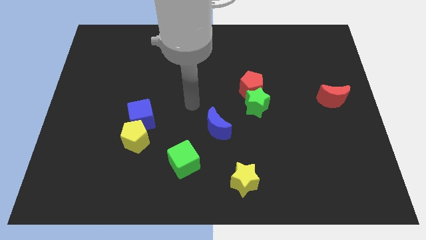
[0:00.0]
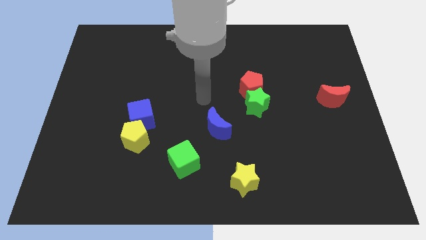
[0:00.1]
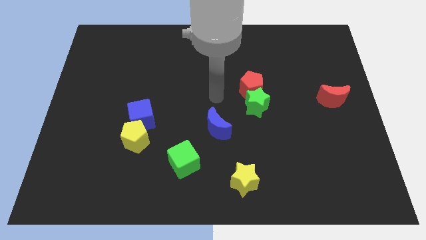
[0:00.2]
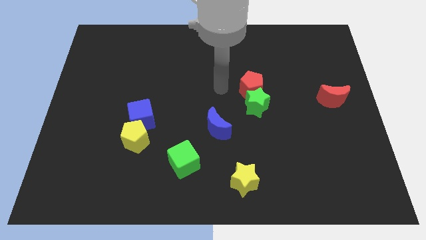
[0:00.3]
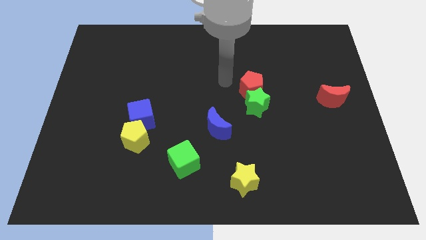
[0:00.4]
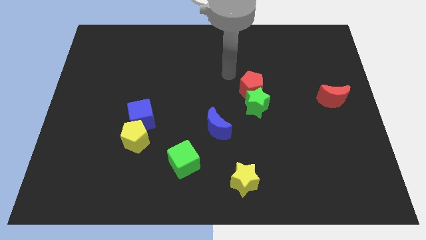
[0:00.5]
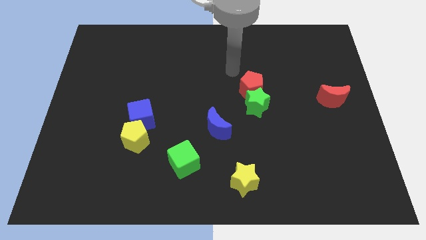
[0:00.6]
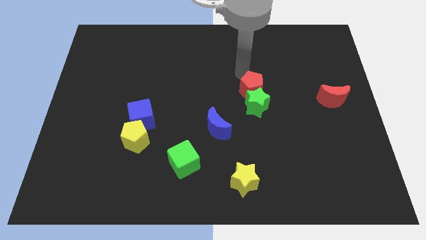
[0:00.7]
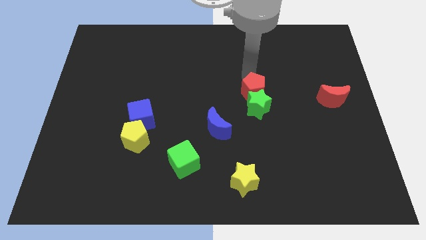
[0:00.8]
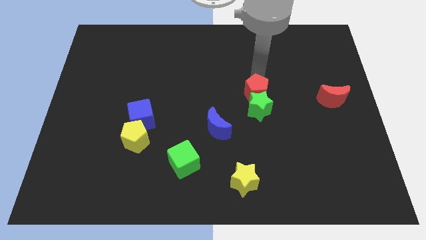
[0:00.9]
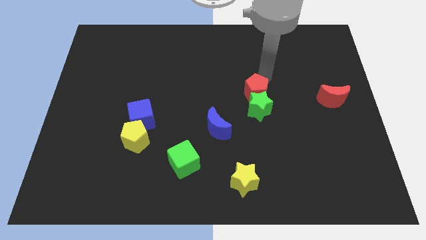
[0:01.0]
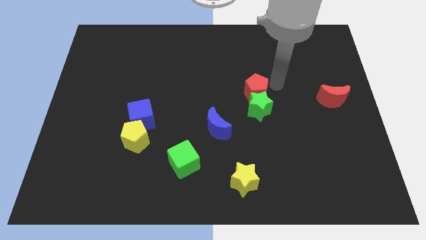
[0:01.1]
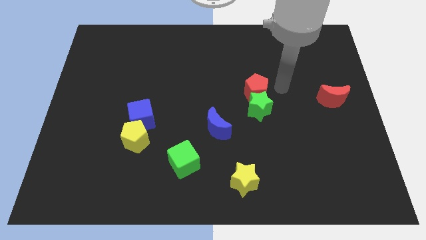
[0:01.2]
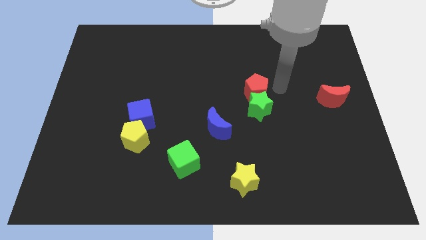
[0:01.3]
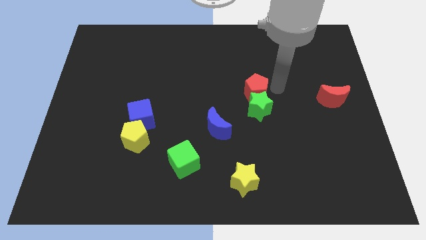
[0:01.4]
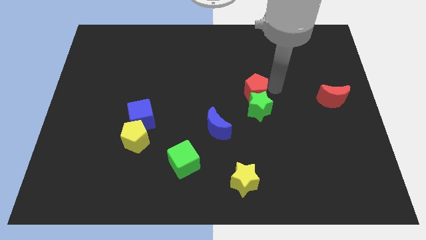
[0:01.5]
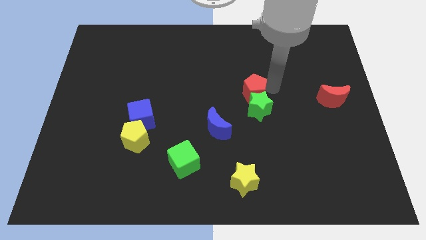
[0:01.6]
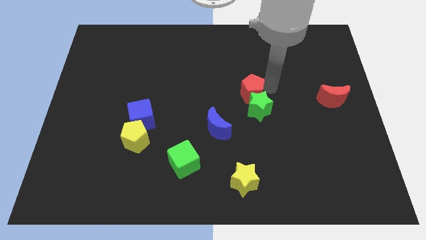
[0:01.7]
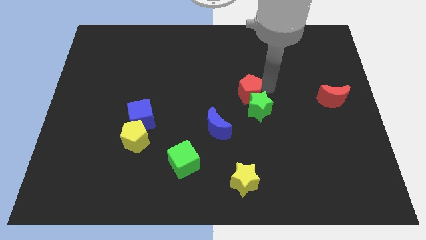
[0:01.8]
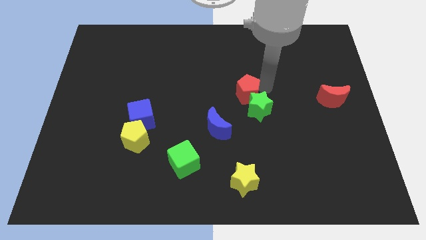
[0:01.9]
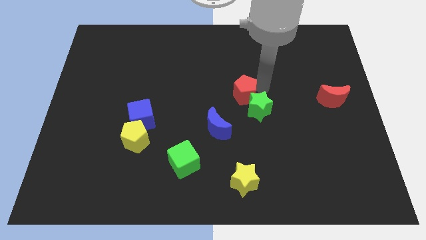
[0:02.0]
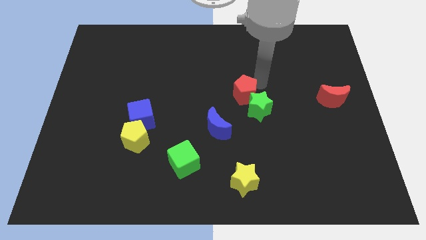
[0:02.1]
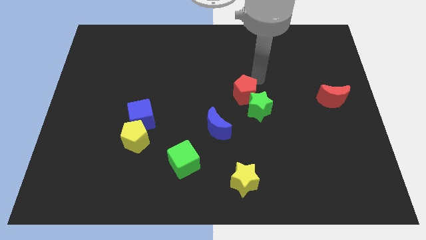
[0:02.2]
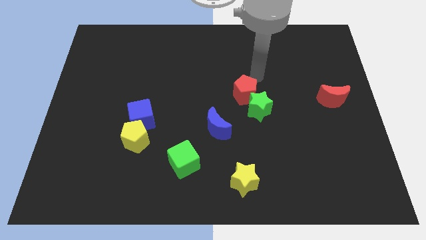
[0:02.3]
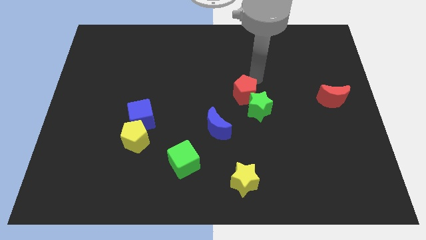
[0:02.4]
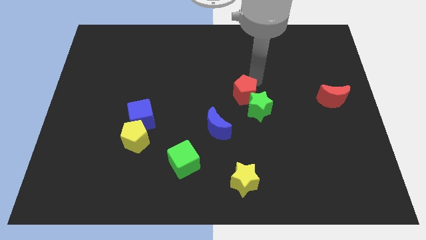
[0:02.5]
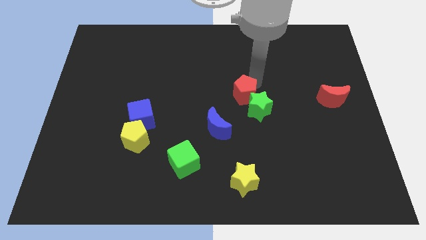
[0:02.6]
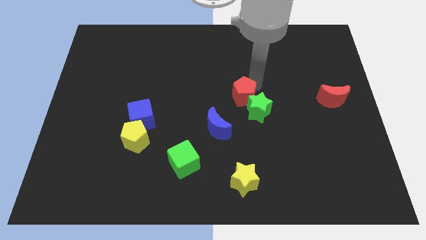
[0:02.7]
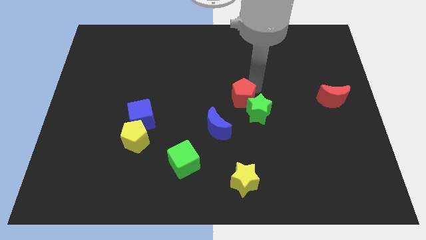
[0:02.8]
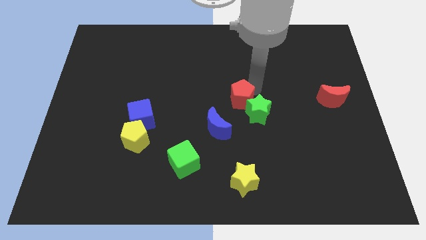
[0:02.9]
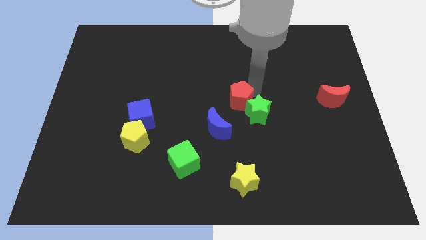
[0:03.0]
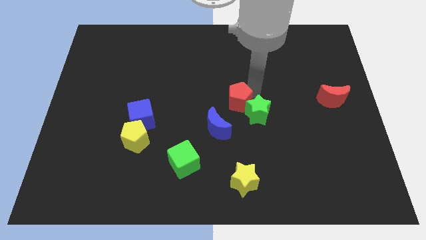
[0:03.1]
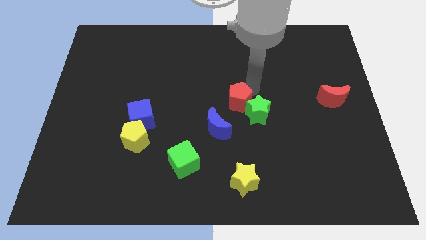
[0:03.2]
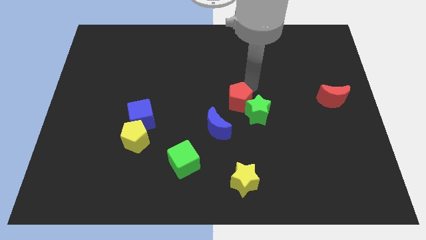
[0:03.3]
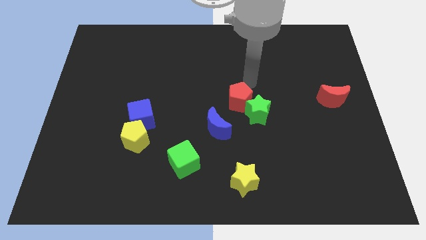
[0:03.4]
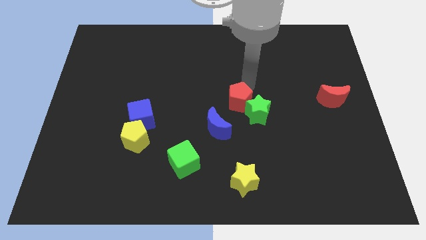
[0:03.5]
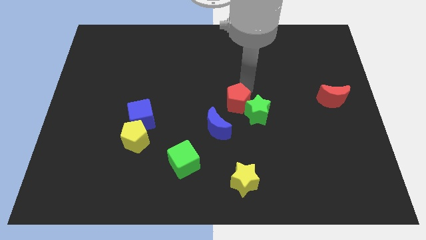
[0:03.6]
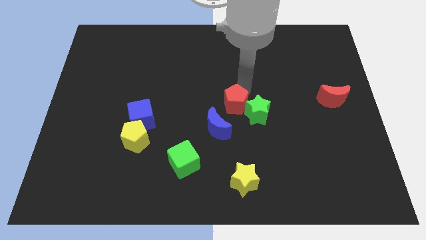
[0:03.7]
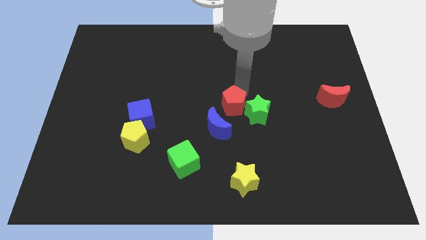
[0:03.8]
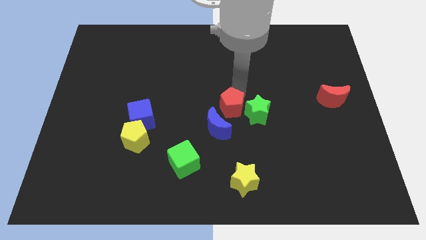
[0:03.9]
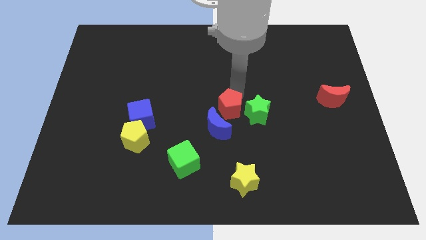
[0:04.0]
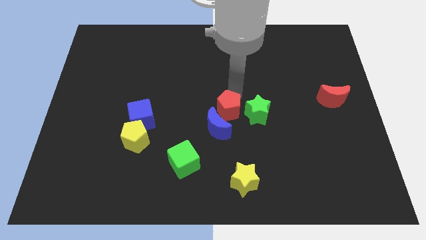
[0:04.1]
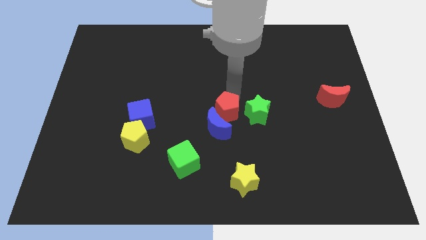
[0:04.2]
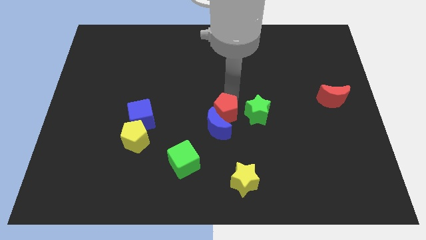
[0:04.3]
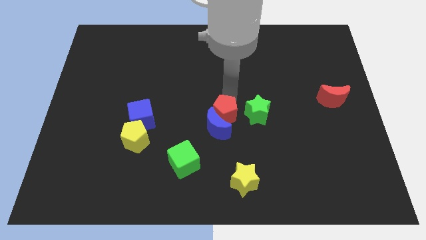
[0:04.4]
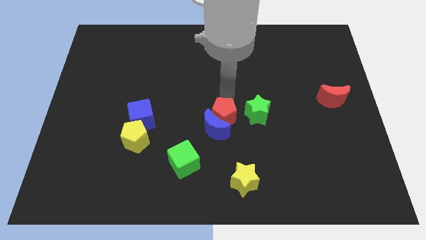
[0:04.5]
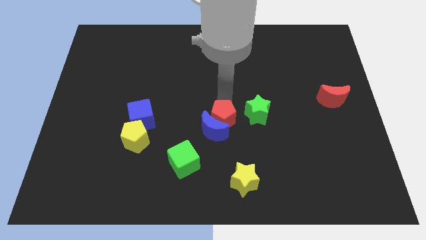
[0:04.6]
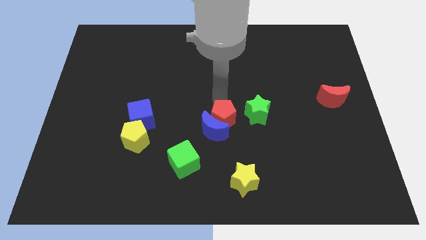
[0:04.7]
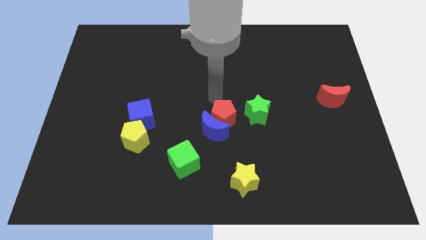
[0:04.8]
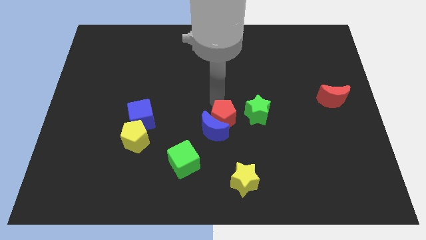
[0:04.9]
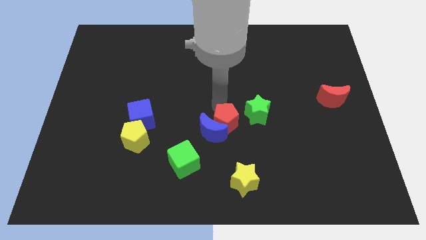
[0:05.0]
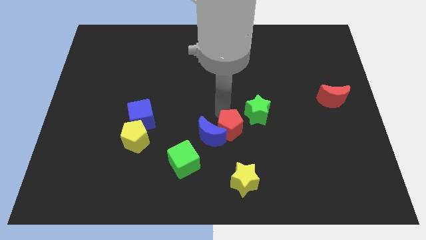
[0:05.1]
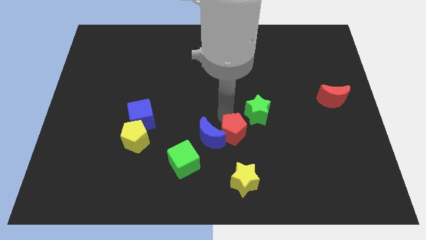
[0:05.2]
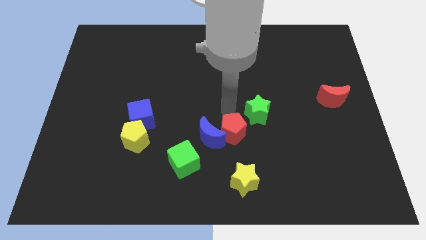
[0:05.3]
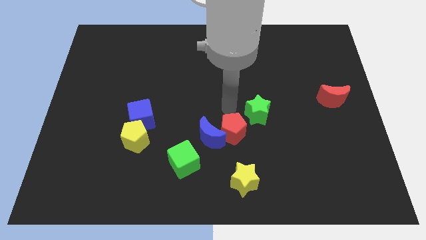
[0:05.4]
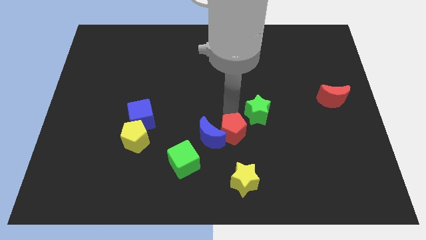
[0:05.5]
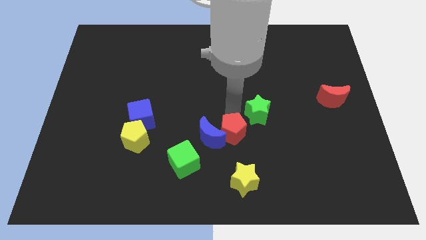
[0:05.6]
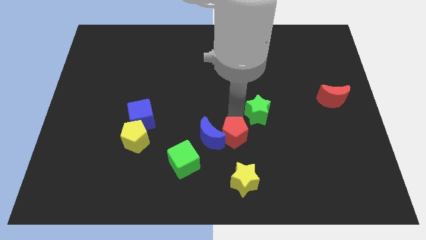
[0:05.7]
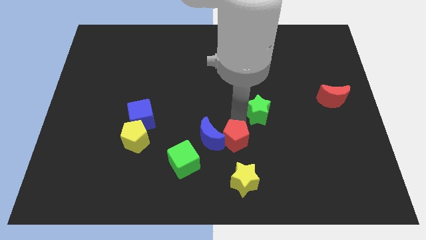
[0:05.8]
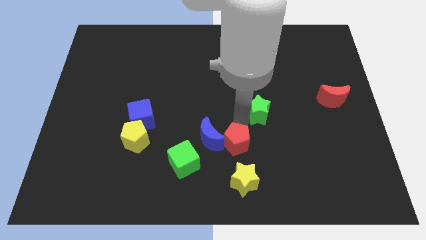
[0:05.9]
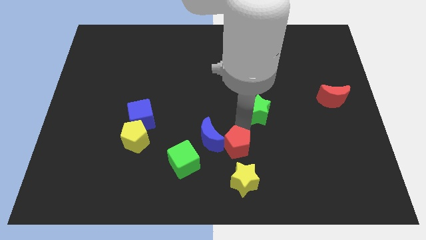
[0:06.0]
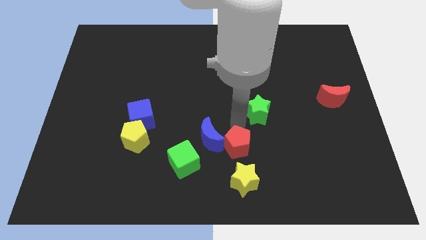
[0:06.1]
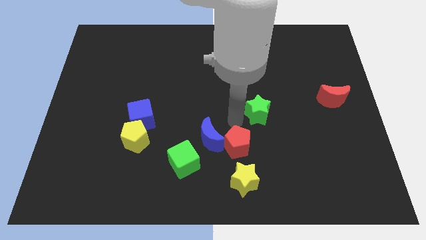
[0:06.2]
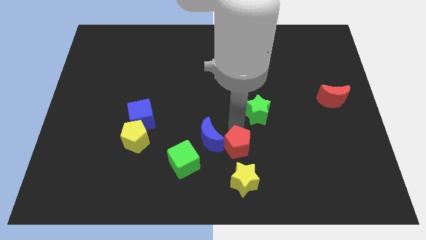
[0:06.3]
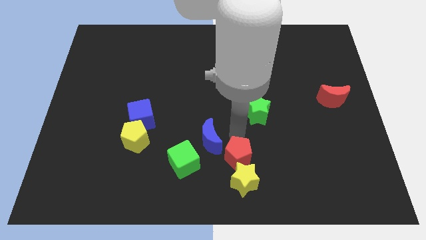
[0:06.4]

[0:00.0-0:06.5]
slide the red pentagon to the yellow star

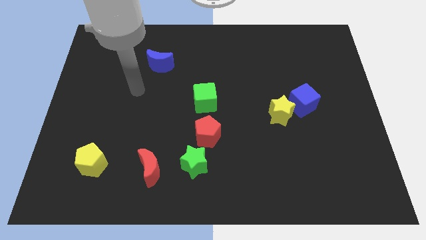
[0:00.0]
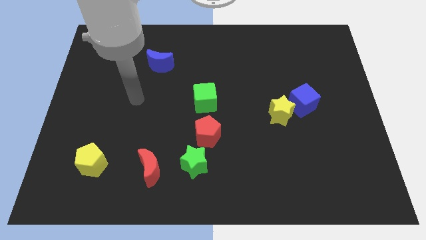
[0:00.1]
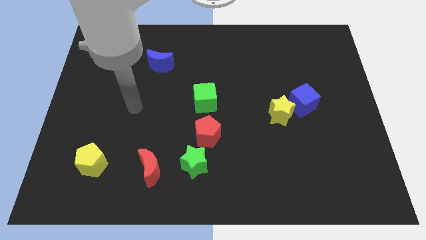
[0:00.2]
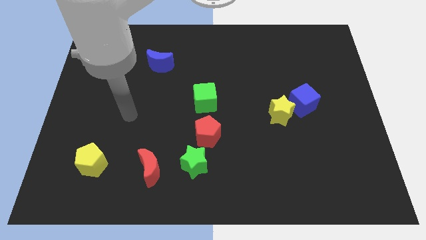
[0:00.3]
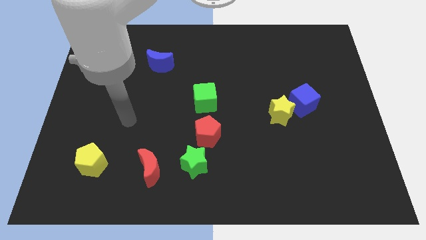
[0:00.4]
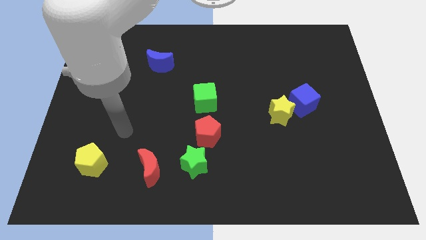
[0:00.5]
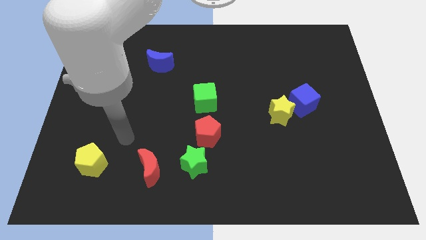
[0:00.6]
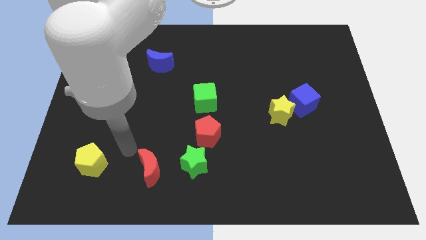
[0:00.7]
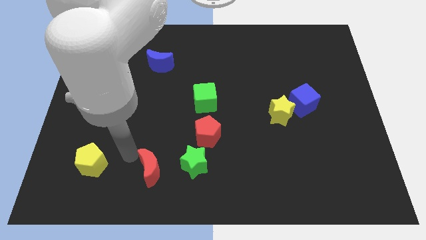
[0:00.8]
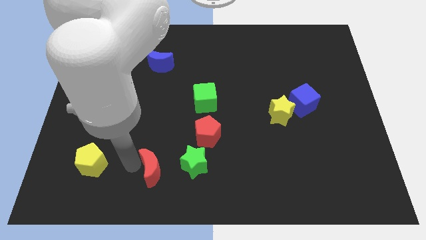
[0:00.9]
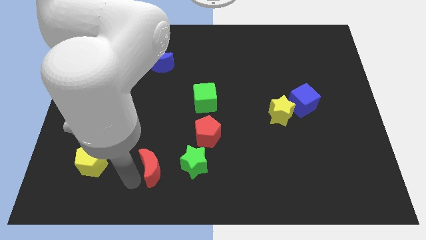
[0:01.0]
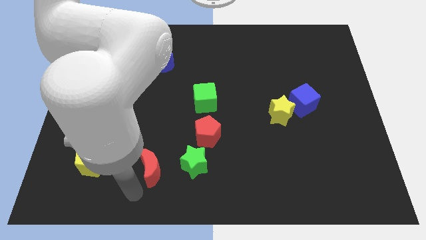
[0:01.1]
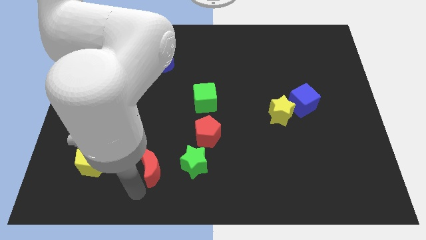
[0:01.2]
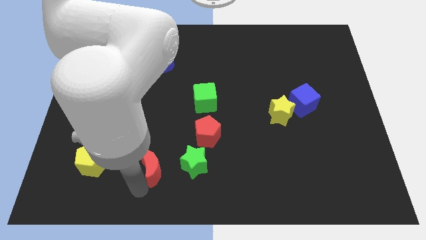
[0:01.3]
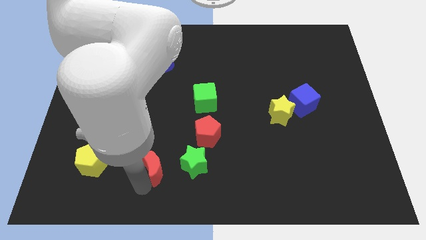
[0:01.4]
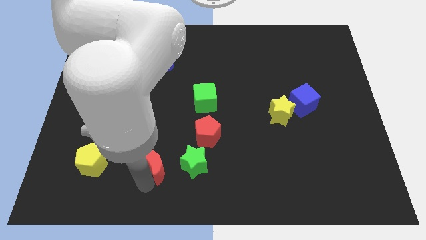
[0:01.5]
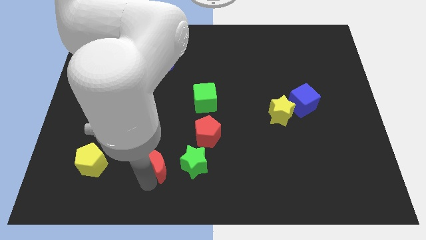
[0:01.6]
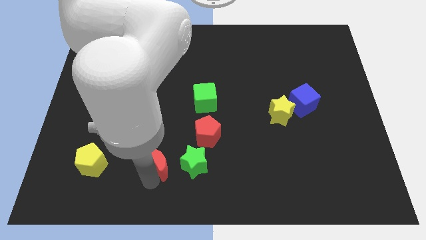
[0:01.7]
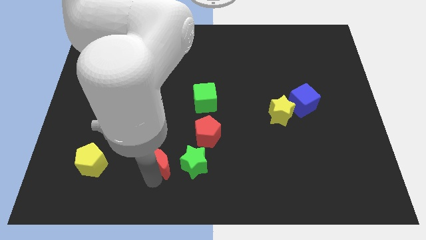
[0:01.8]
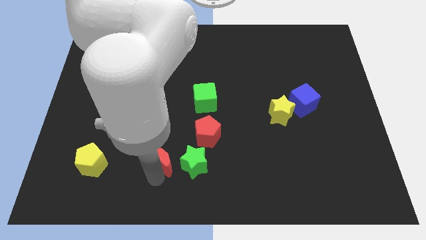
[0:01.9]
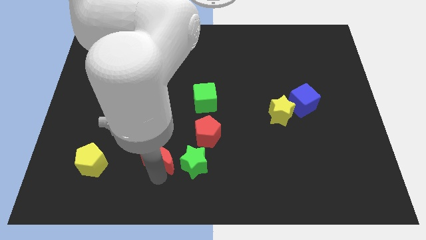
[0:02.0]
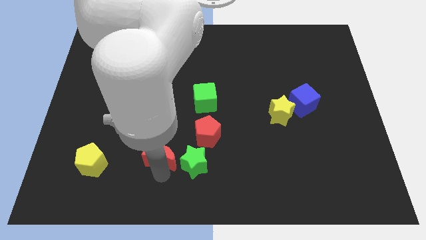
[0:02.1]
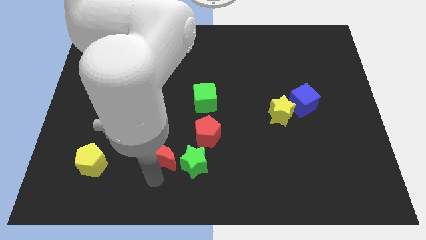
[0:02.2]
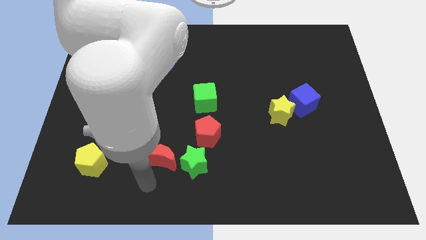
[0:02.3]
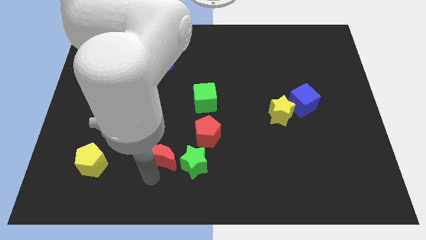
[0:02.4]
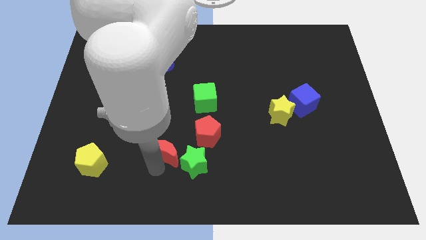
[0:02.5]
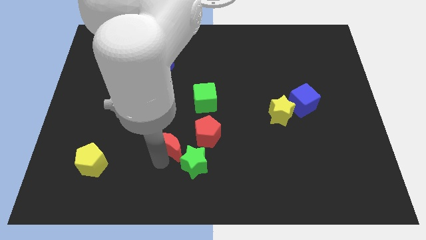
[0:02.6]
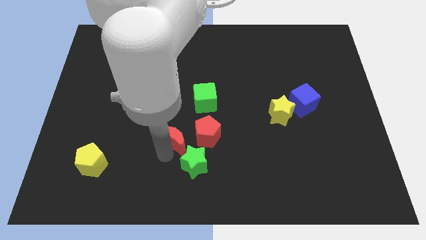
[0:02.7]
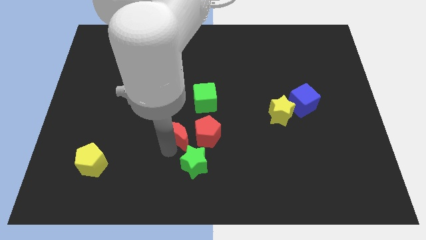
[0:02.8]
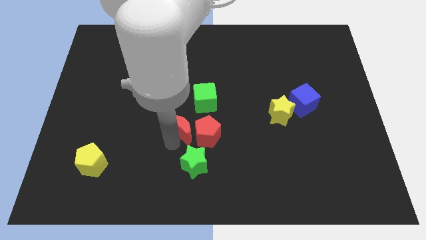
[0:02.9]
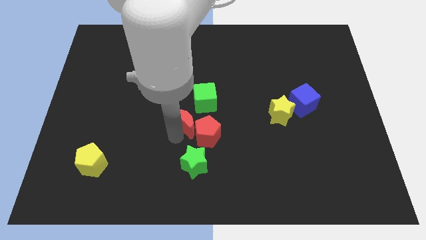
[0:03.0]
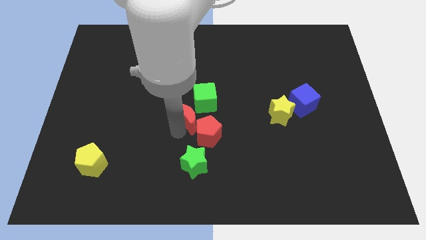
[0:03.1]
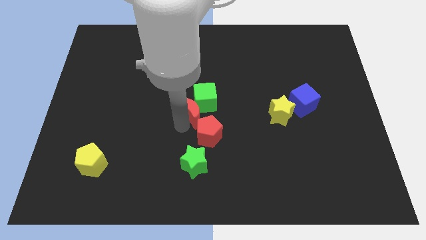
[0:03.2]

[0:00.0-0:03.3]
move the red moon towards the green cube
